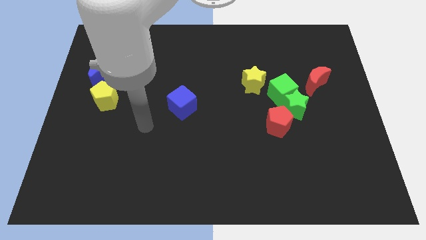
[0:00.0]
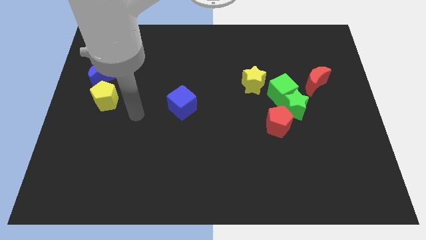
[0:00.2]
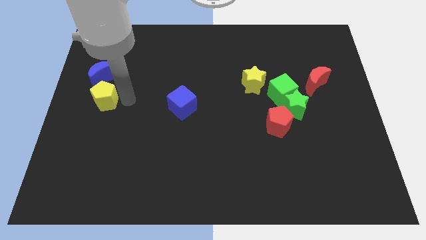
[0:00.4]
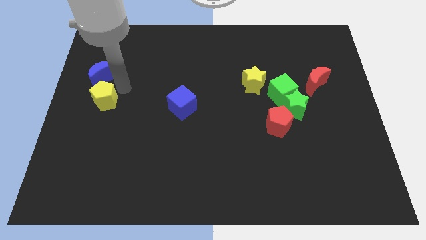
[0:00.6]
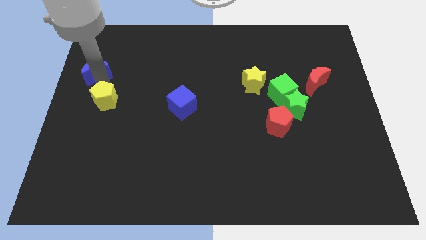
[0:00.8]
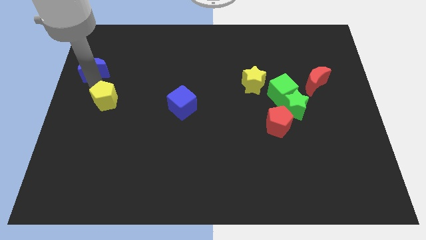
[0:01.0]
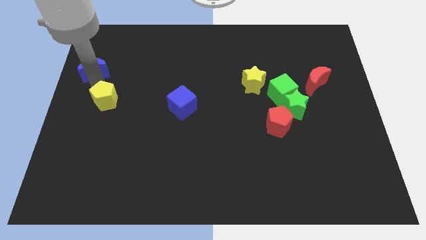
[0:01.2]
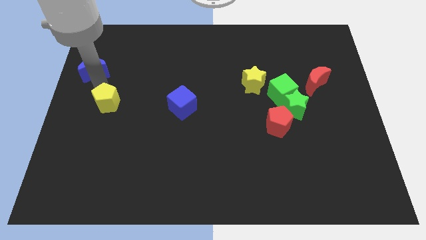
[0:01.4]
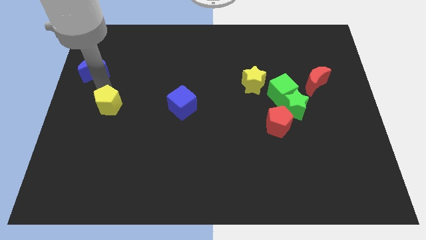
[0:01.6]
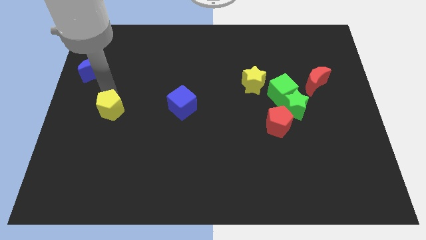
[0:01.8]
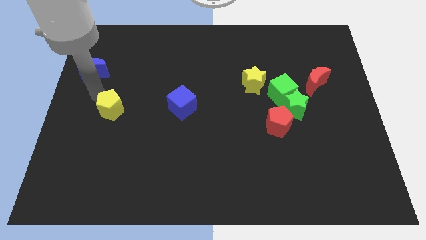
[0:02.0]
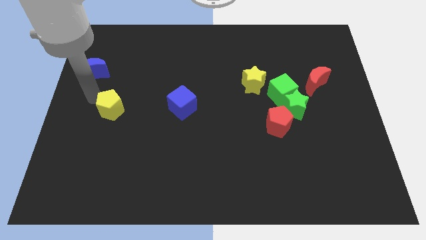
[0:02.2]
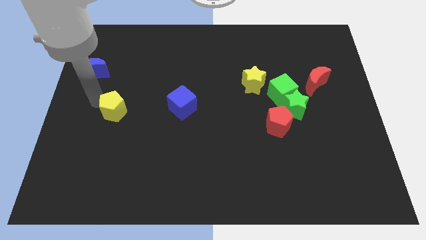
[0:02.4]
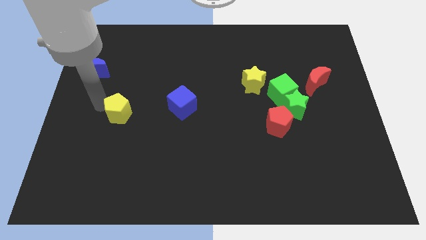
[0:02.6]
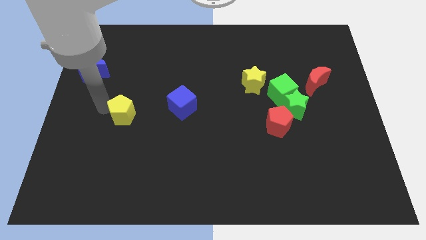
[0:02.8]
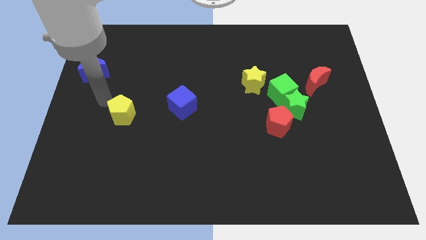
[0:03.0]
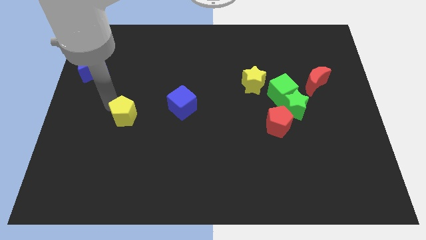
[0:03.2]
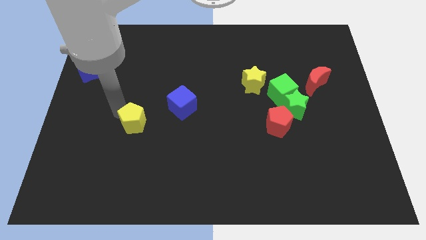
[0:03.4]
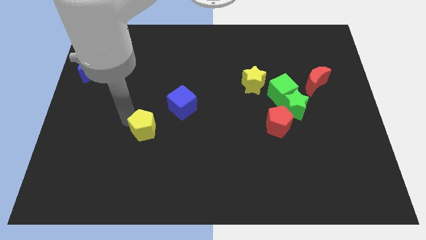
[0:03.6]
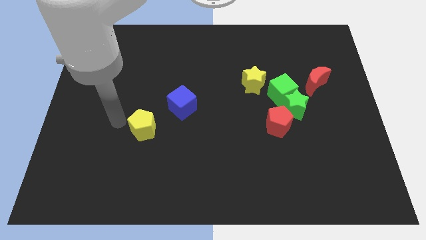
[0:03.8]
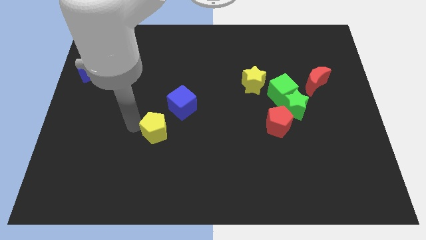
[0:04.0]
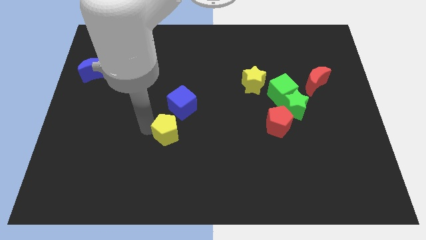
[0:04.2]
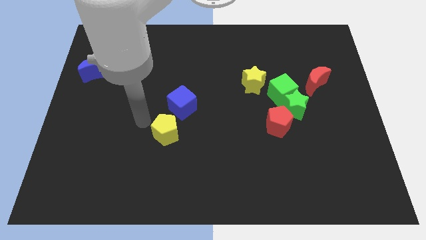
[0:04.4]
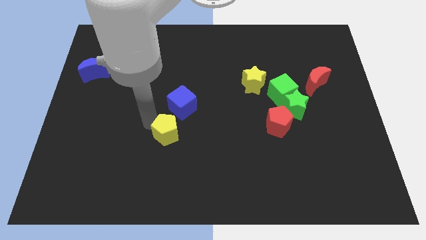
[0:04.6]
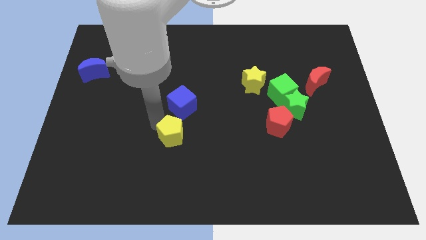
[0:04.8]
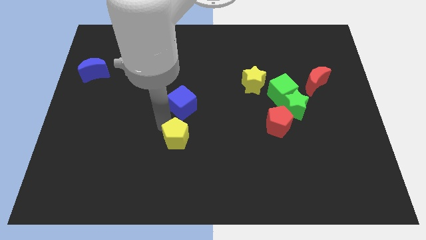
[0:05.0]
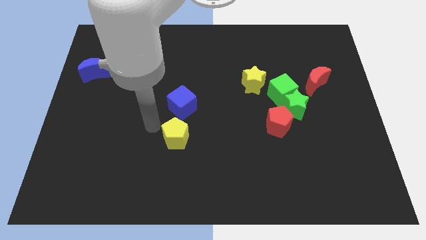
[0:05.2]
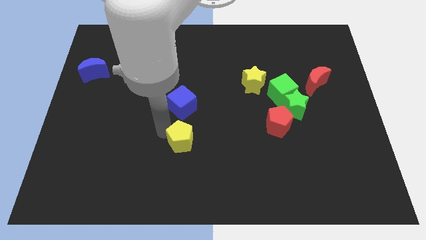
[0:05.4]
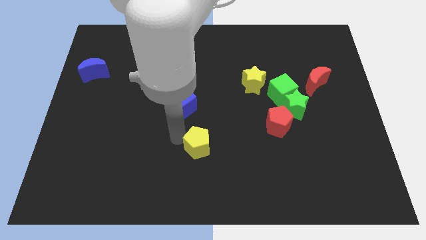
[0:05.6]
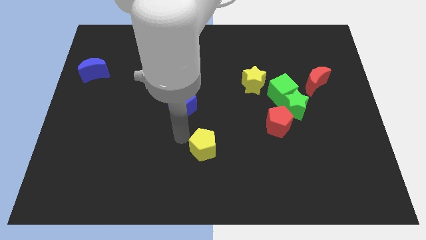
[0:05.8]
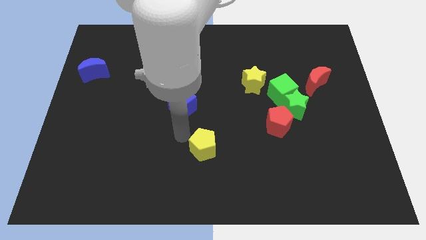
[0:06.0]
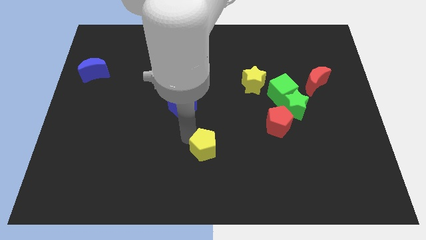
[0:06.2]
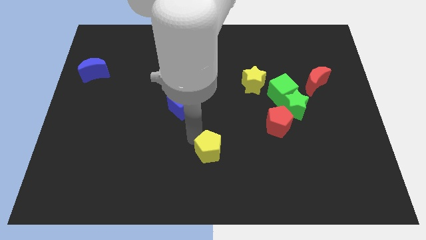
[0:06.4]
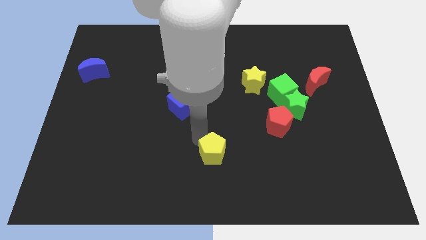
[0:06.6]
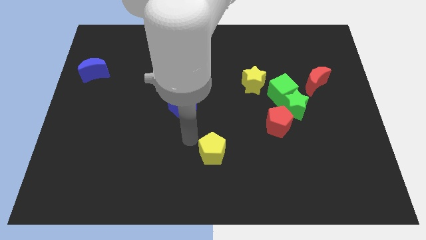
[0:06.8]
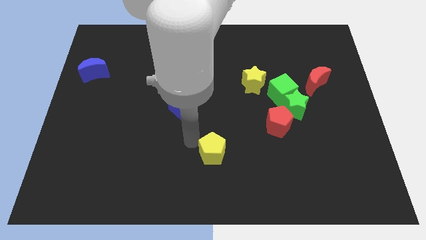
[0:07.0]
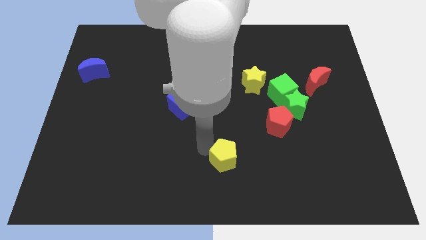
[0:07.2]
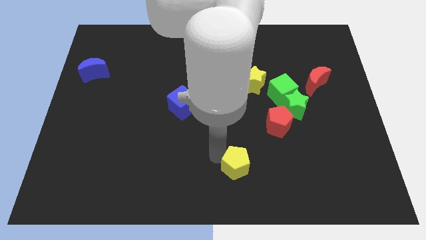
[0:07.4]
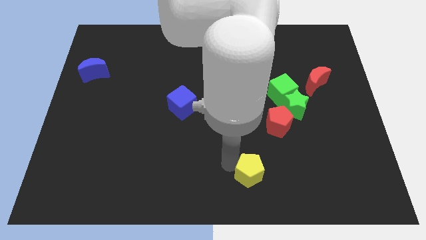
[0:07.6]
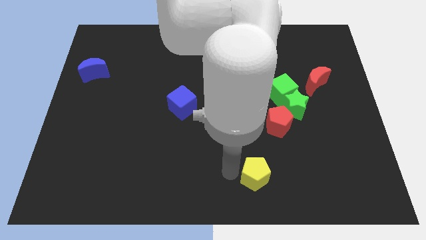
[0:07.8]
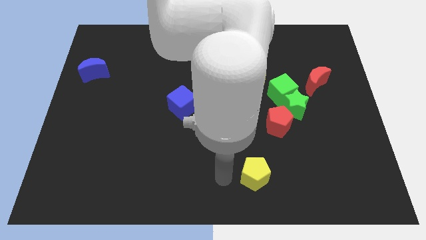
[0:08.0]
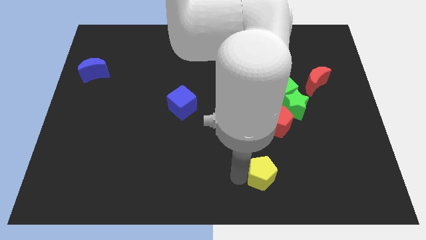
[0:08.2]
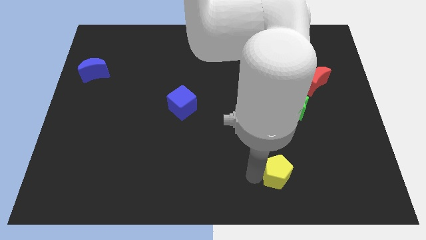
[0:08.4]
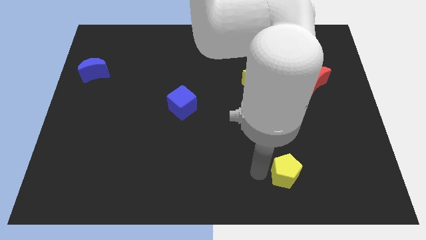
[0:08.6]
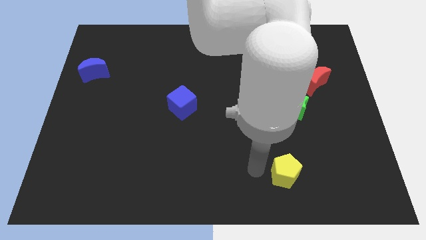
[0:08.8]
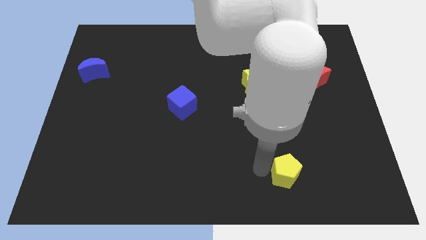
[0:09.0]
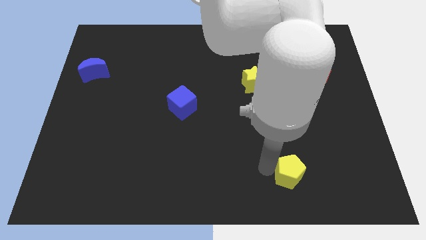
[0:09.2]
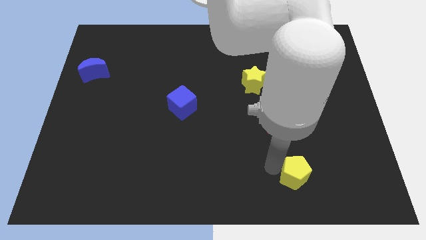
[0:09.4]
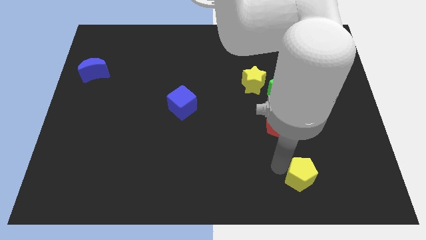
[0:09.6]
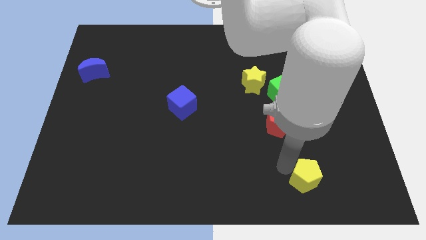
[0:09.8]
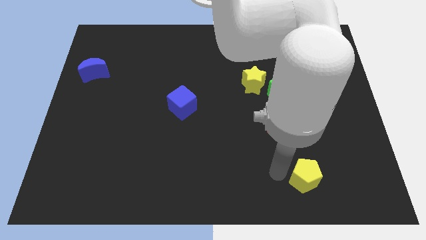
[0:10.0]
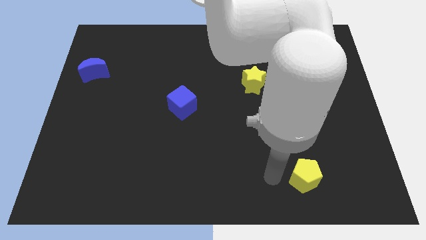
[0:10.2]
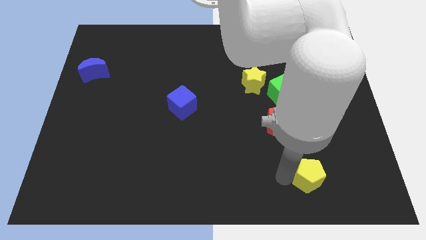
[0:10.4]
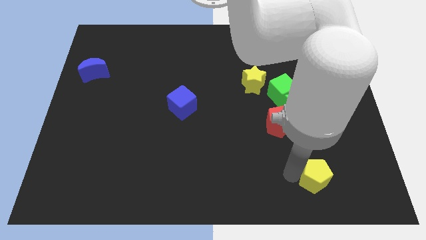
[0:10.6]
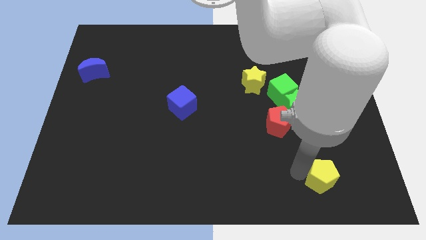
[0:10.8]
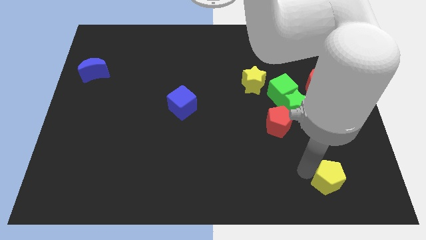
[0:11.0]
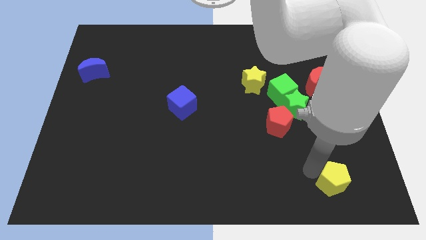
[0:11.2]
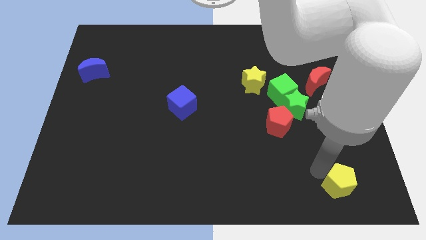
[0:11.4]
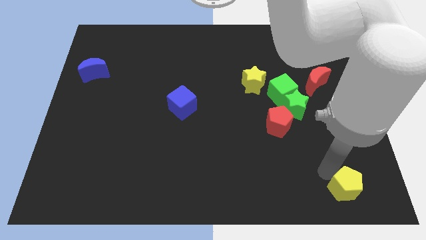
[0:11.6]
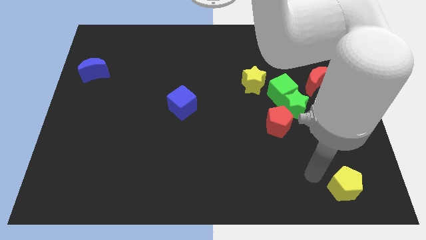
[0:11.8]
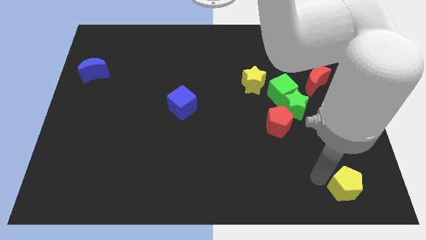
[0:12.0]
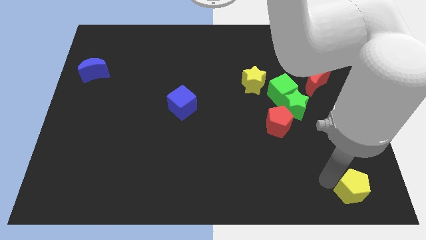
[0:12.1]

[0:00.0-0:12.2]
put the yellow pentagon to the bottom right of the board

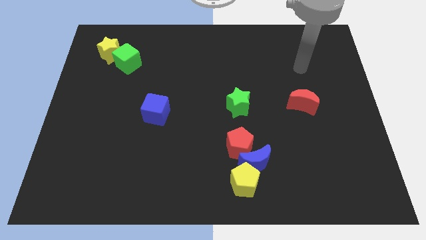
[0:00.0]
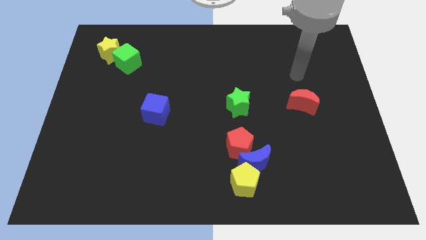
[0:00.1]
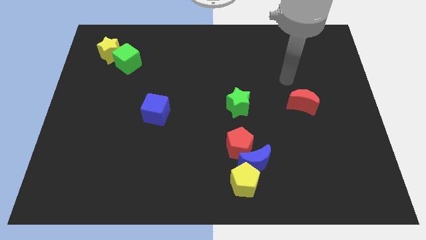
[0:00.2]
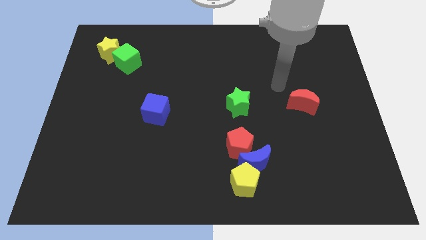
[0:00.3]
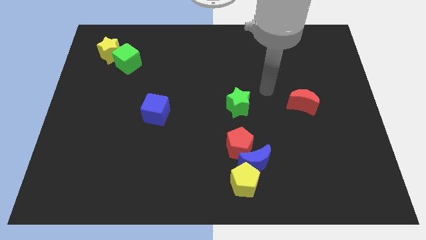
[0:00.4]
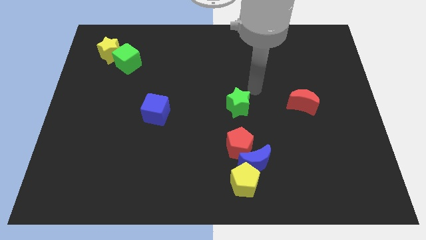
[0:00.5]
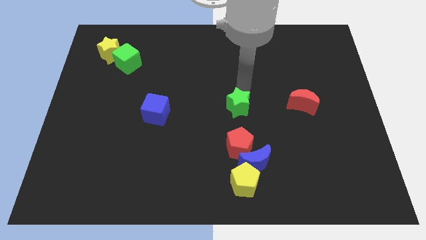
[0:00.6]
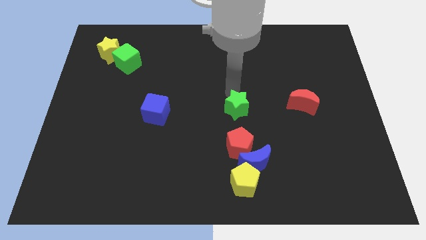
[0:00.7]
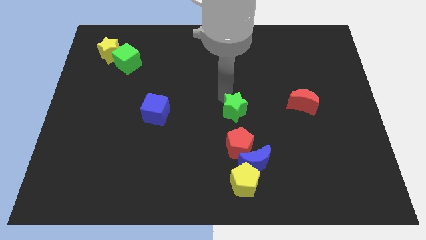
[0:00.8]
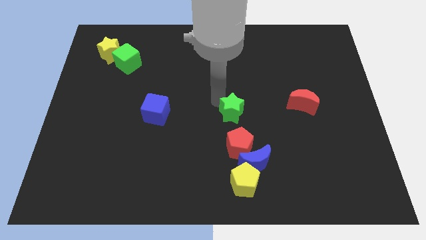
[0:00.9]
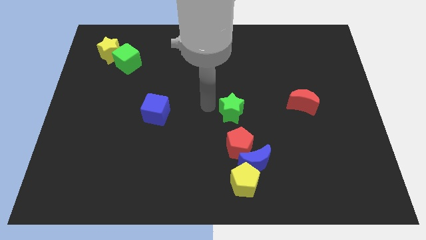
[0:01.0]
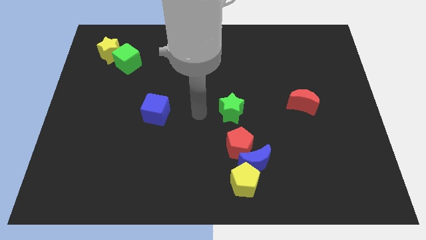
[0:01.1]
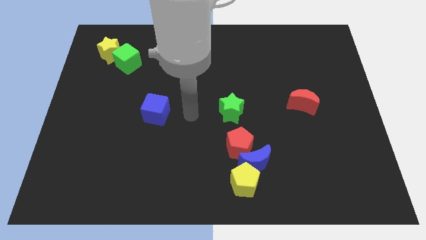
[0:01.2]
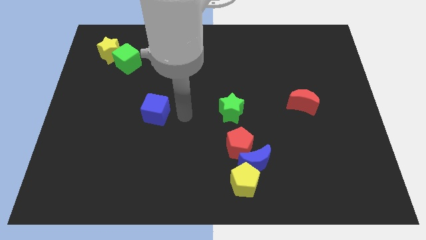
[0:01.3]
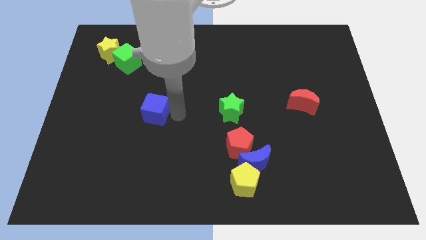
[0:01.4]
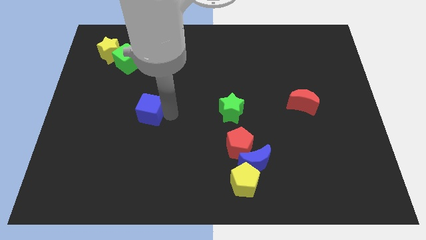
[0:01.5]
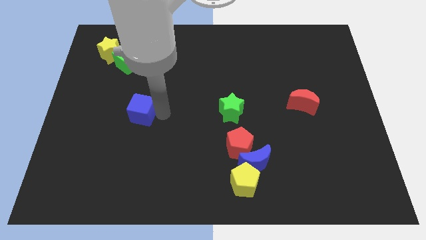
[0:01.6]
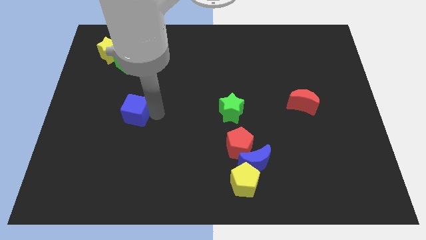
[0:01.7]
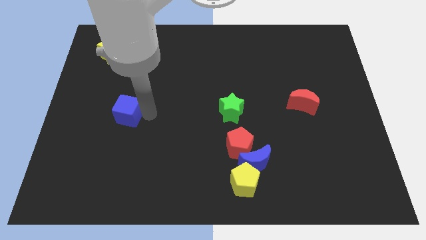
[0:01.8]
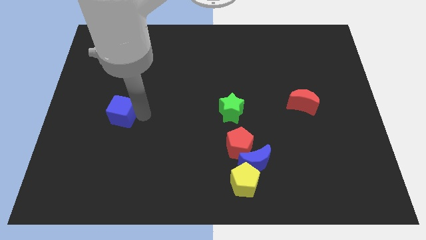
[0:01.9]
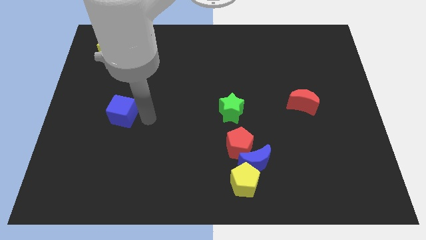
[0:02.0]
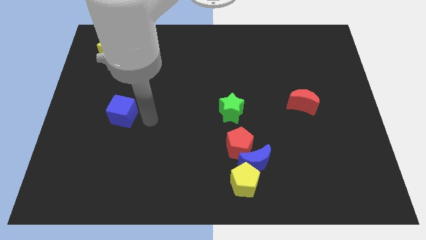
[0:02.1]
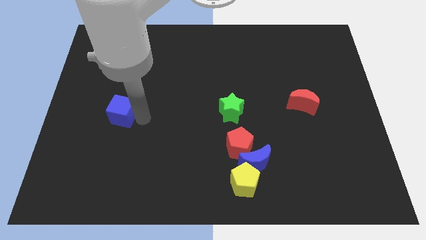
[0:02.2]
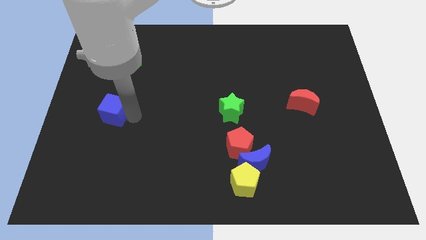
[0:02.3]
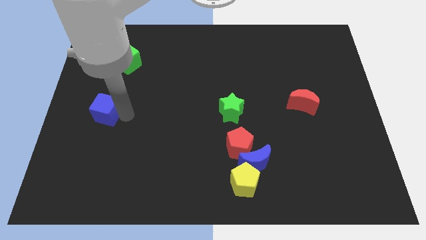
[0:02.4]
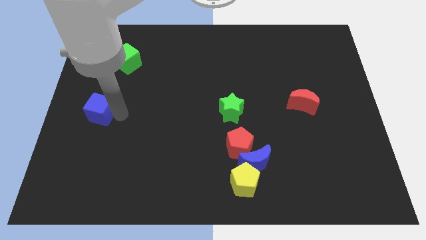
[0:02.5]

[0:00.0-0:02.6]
move the blue cube to the left side
